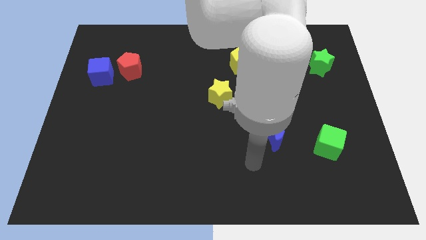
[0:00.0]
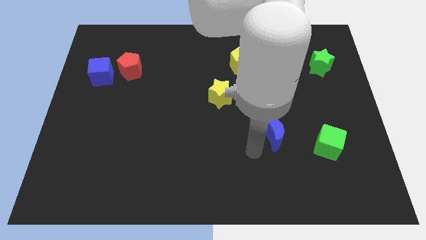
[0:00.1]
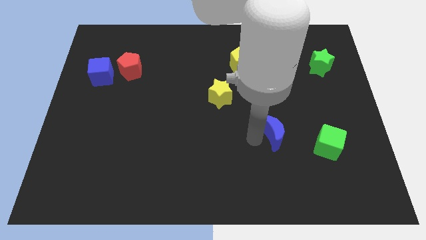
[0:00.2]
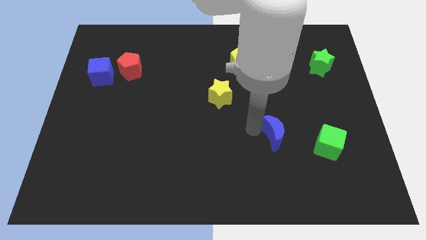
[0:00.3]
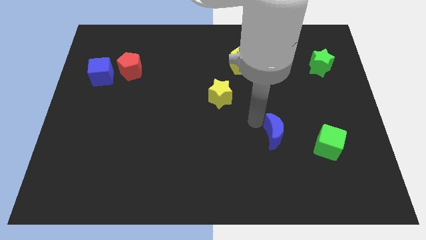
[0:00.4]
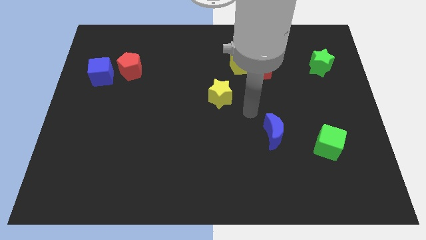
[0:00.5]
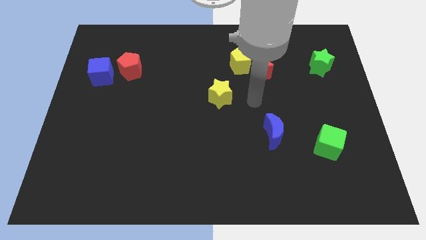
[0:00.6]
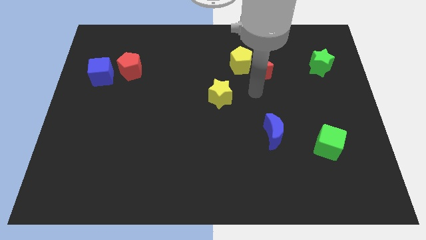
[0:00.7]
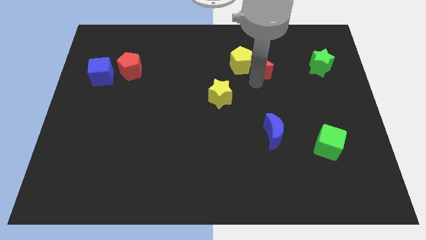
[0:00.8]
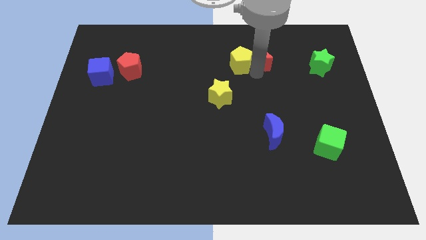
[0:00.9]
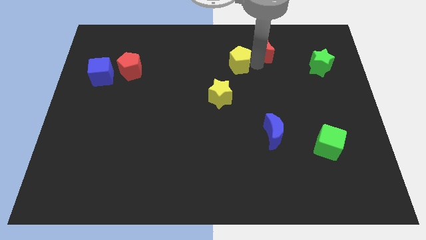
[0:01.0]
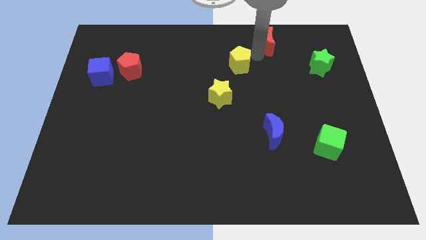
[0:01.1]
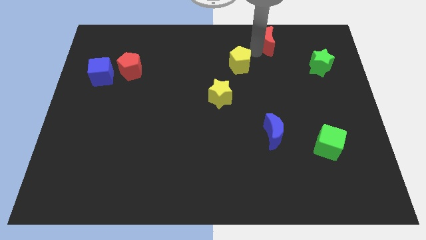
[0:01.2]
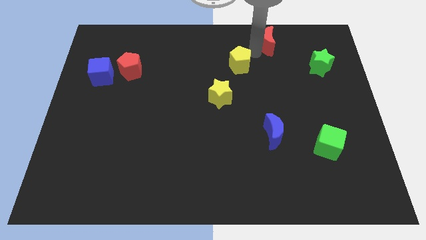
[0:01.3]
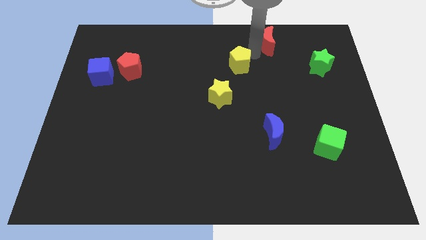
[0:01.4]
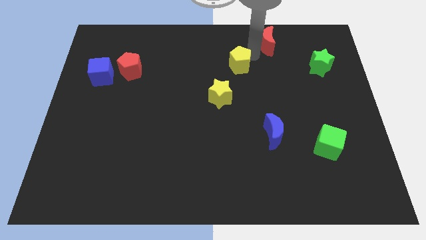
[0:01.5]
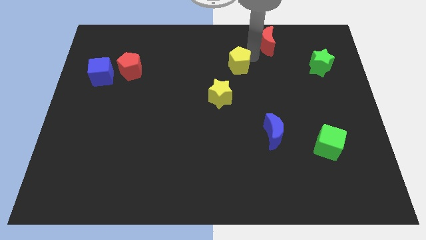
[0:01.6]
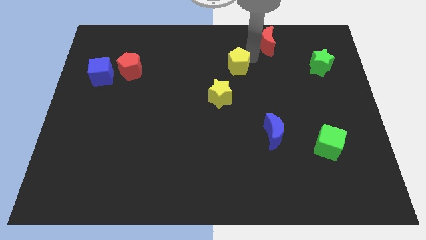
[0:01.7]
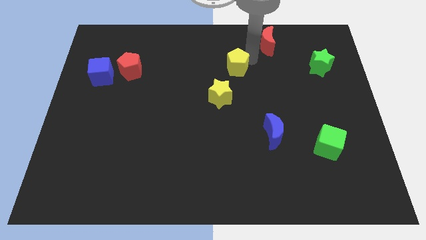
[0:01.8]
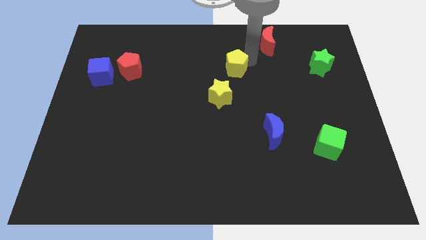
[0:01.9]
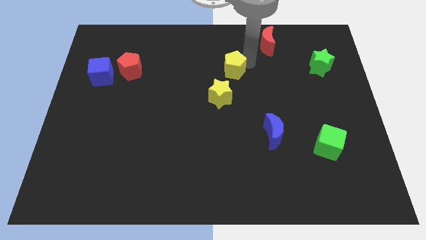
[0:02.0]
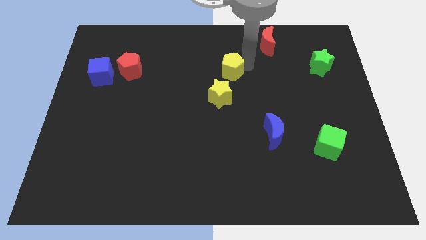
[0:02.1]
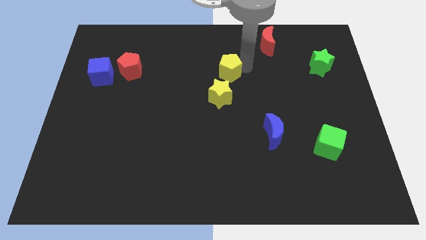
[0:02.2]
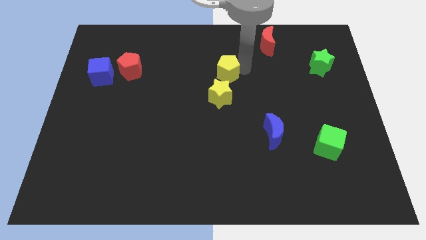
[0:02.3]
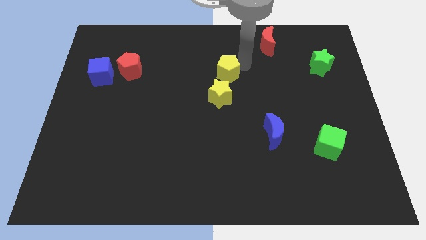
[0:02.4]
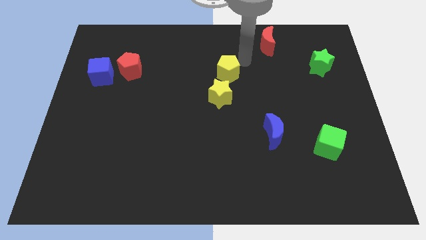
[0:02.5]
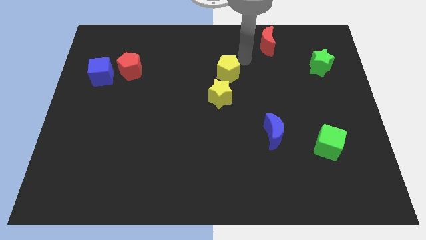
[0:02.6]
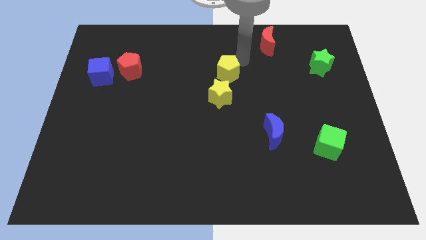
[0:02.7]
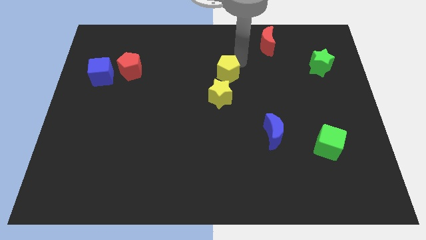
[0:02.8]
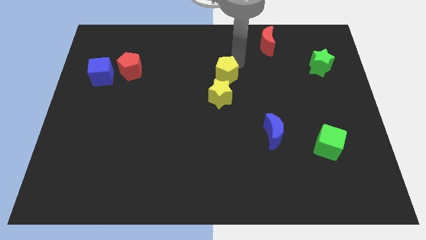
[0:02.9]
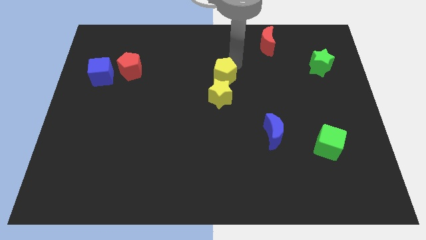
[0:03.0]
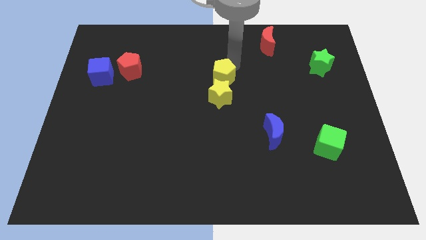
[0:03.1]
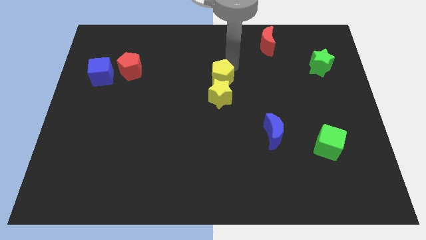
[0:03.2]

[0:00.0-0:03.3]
slightly move the yellow pentagon down and then left

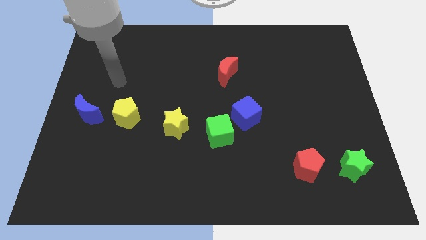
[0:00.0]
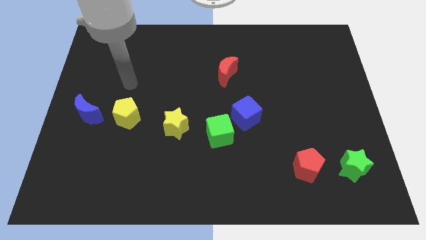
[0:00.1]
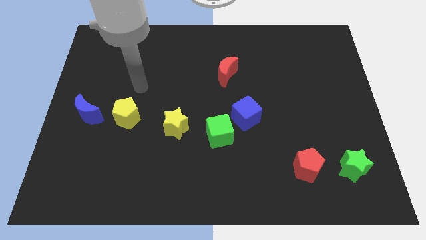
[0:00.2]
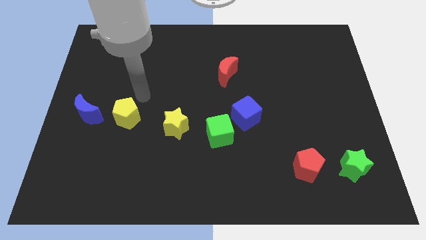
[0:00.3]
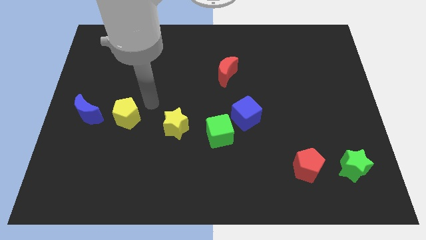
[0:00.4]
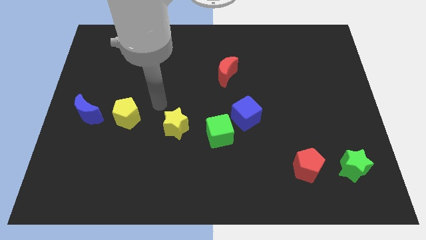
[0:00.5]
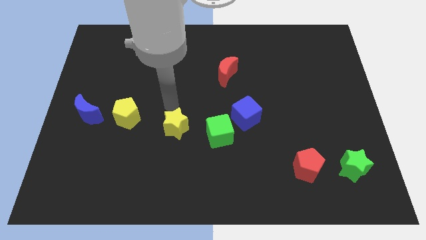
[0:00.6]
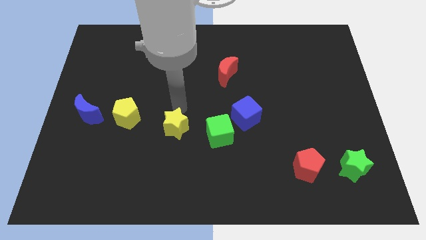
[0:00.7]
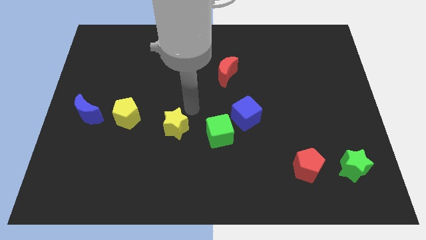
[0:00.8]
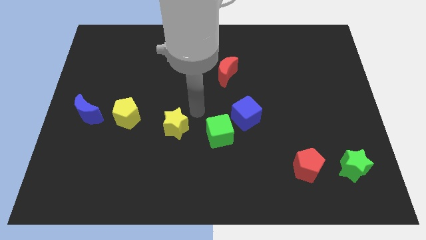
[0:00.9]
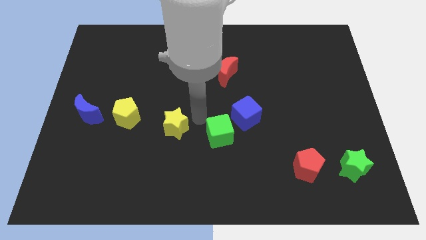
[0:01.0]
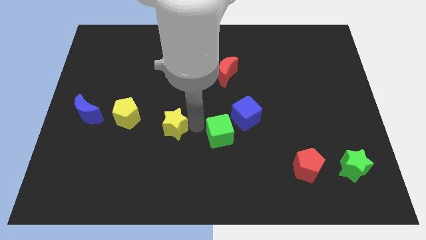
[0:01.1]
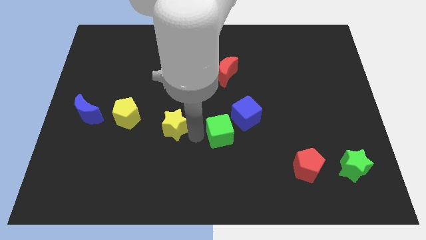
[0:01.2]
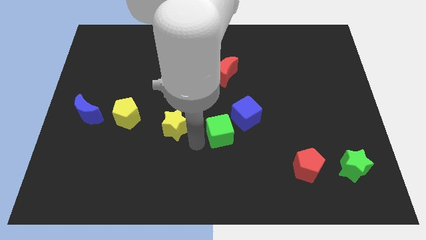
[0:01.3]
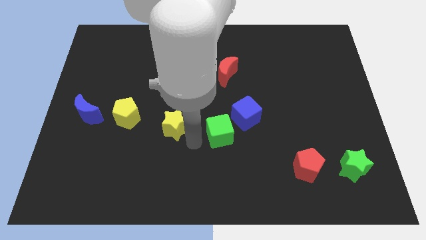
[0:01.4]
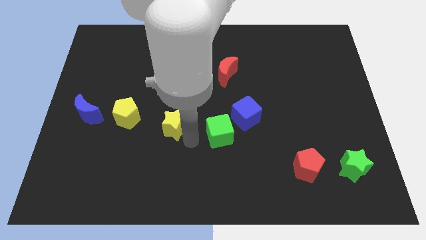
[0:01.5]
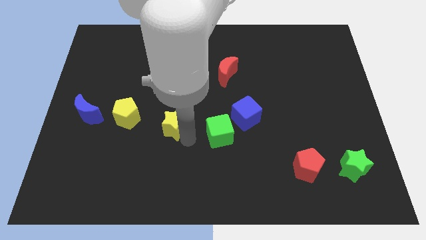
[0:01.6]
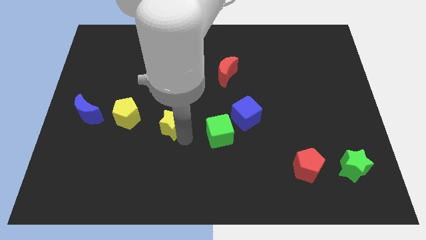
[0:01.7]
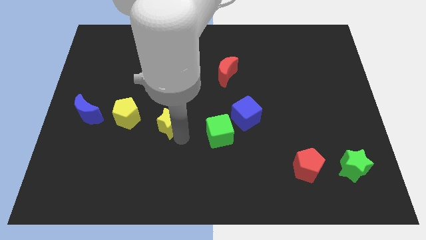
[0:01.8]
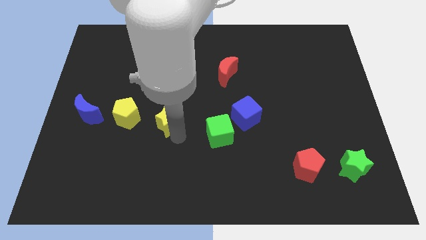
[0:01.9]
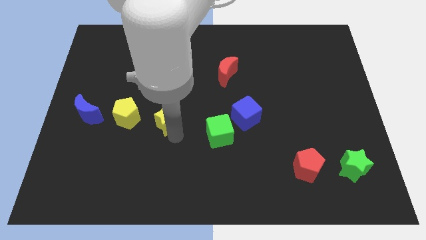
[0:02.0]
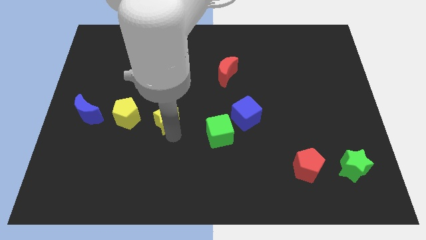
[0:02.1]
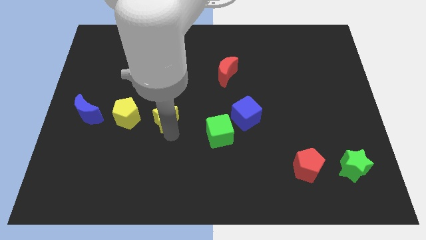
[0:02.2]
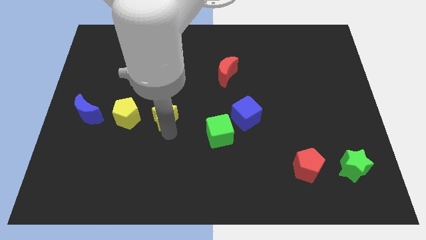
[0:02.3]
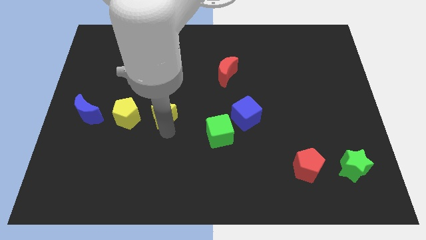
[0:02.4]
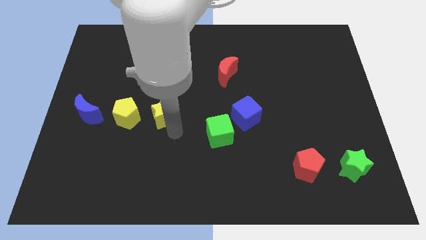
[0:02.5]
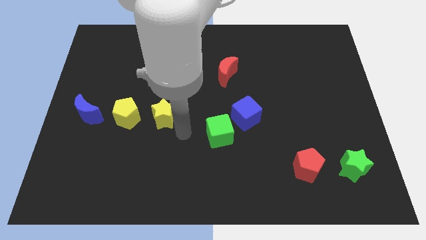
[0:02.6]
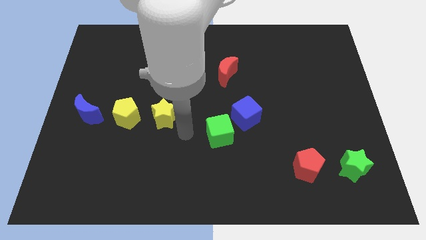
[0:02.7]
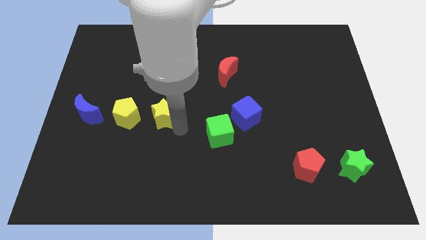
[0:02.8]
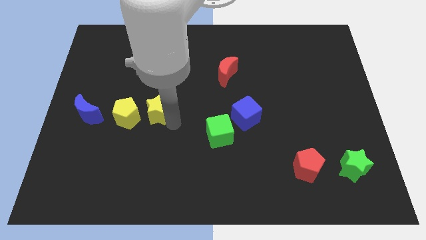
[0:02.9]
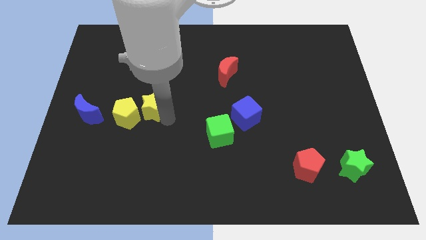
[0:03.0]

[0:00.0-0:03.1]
slightly slide the yellow star upwards and to the left

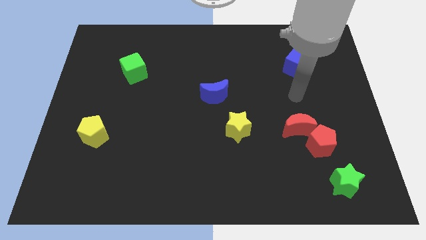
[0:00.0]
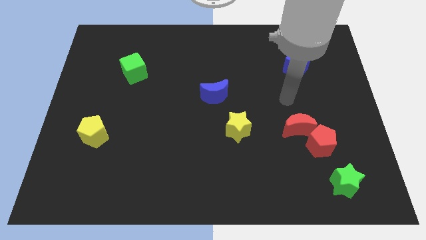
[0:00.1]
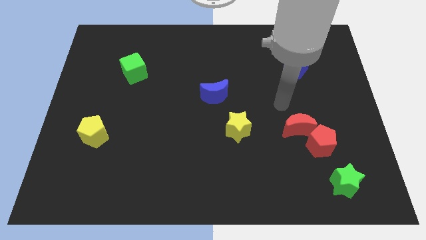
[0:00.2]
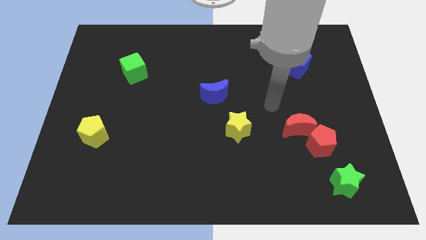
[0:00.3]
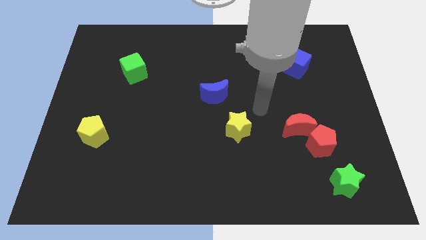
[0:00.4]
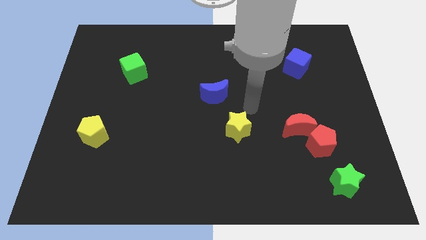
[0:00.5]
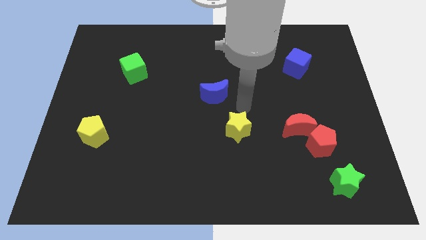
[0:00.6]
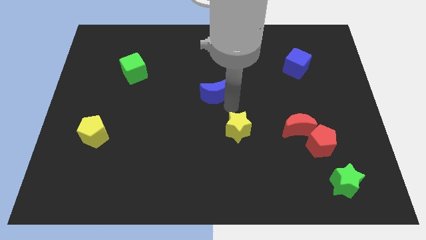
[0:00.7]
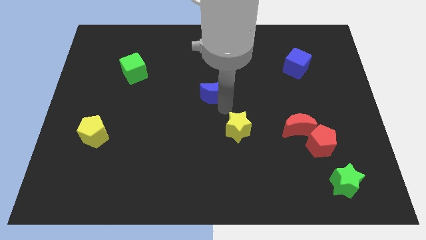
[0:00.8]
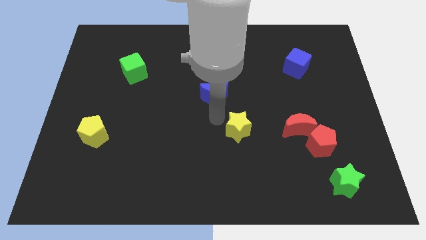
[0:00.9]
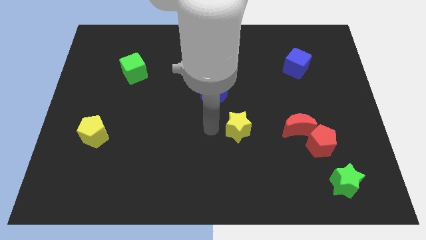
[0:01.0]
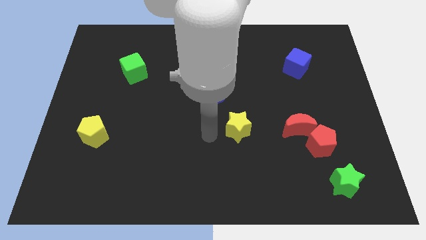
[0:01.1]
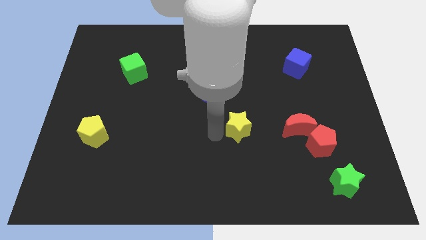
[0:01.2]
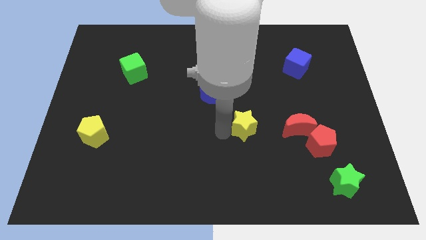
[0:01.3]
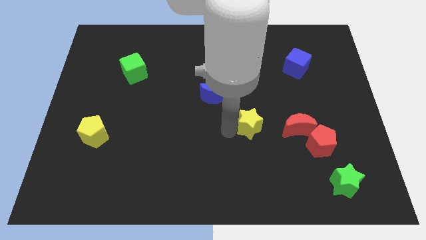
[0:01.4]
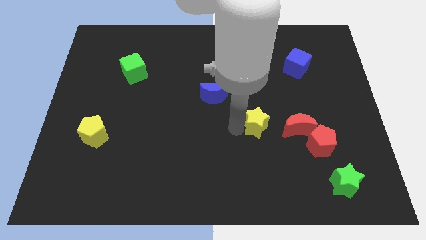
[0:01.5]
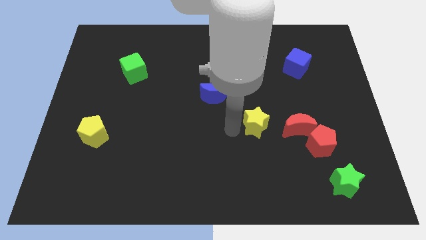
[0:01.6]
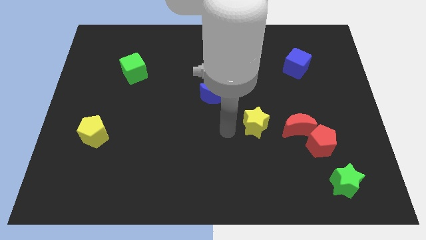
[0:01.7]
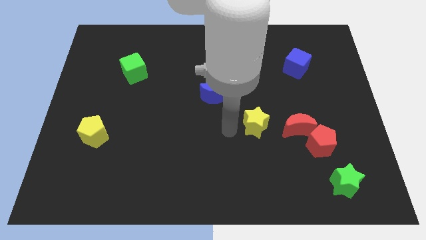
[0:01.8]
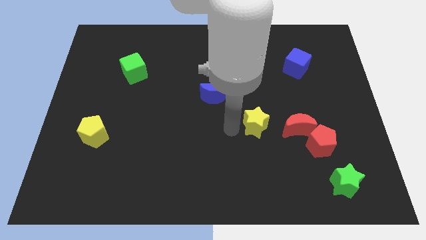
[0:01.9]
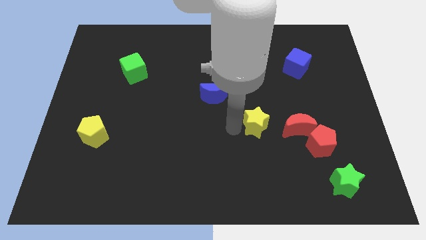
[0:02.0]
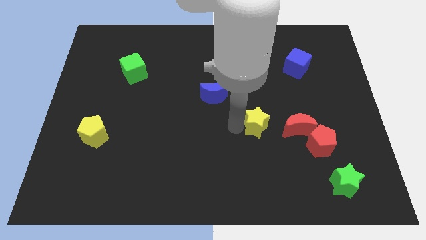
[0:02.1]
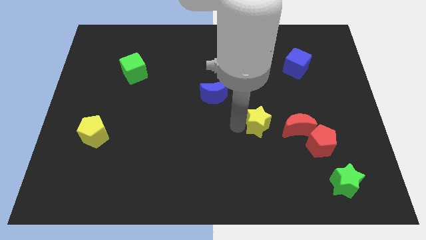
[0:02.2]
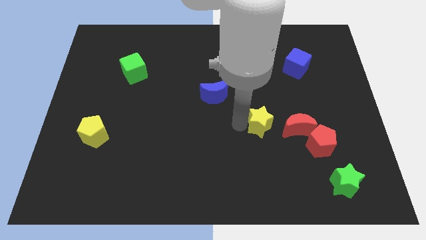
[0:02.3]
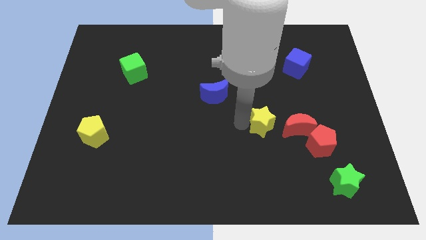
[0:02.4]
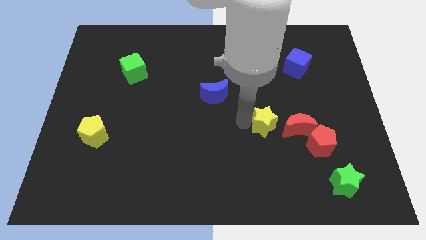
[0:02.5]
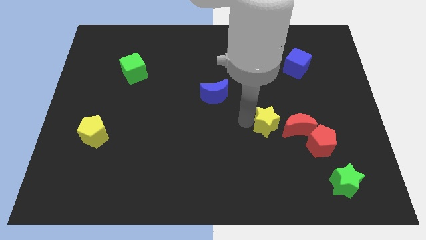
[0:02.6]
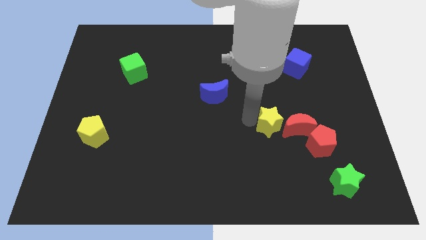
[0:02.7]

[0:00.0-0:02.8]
move the yellow star a little right
